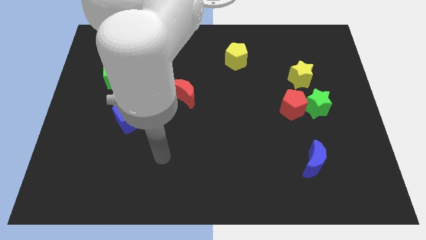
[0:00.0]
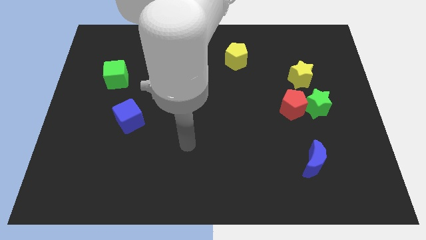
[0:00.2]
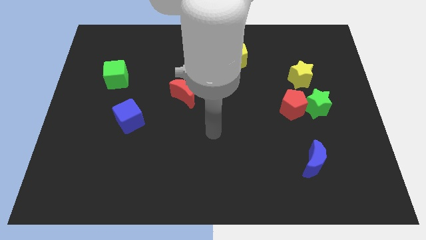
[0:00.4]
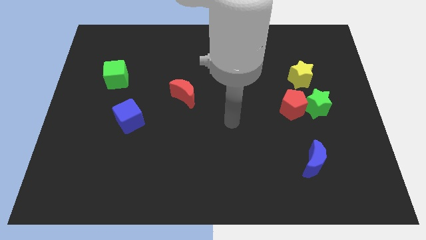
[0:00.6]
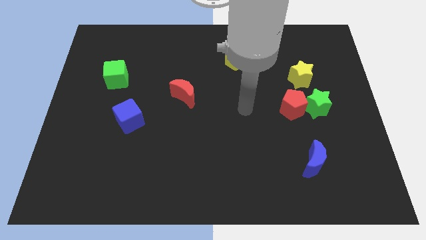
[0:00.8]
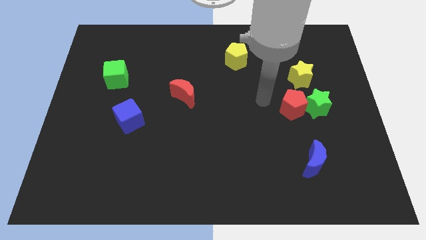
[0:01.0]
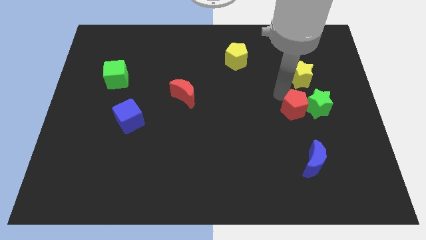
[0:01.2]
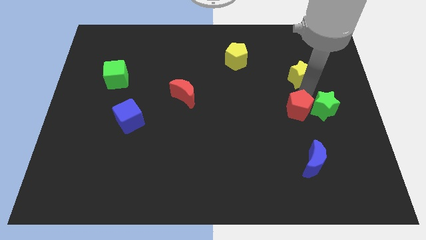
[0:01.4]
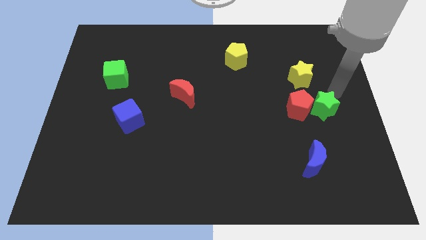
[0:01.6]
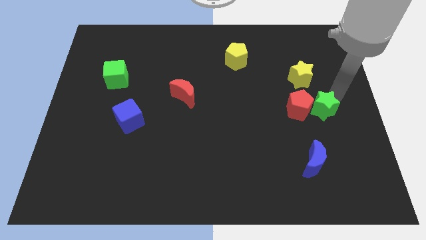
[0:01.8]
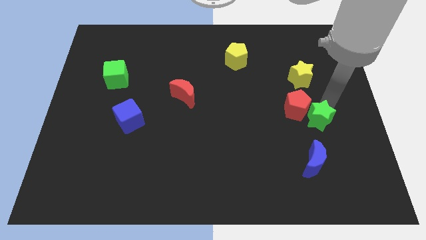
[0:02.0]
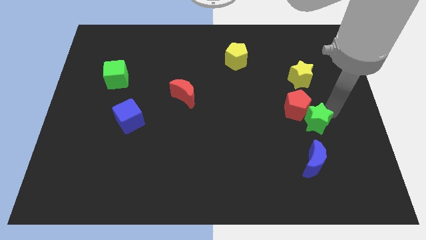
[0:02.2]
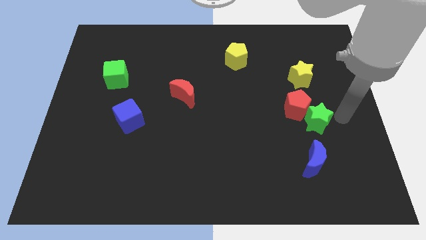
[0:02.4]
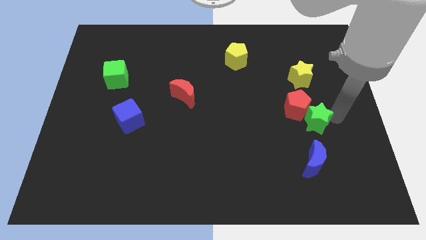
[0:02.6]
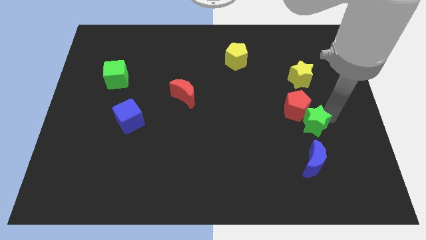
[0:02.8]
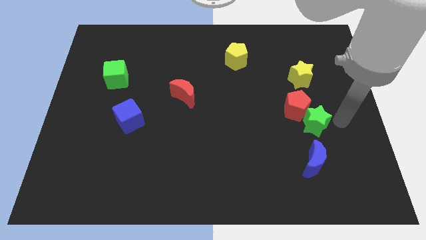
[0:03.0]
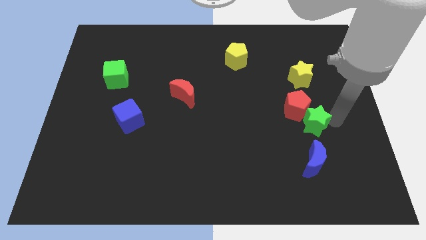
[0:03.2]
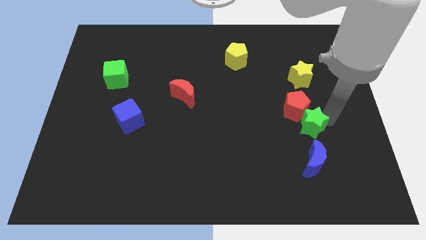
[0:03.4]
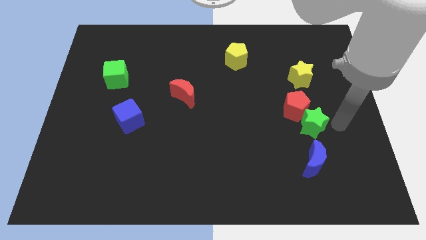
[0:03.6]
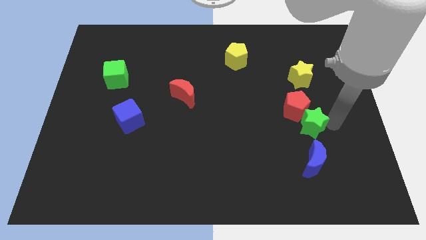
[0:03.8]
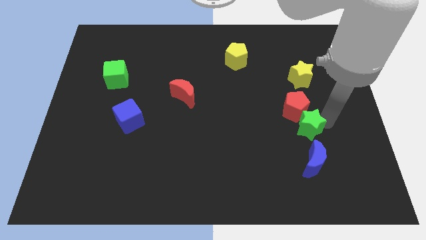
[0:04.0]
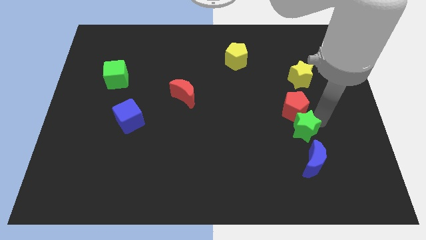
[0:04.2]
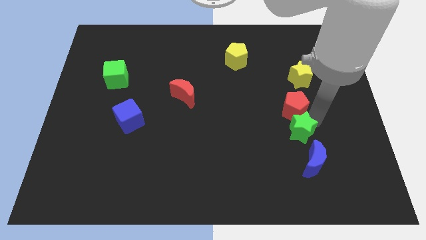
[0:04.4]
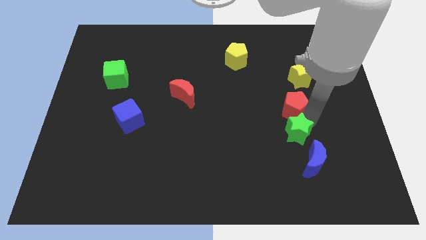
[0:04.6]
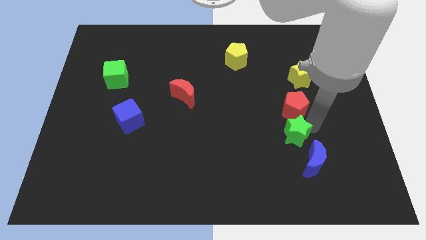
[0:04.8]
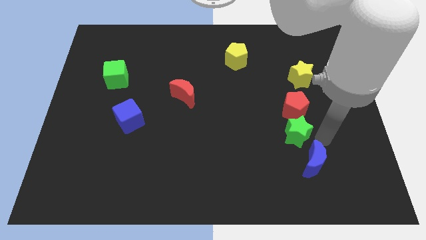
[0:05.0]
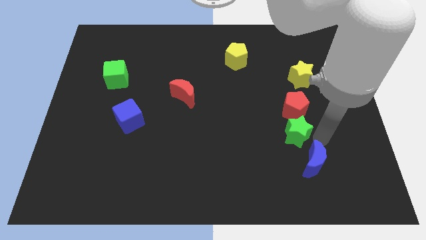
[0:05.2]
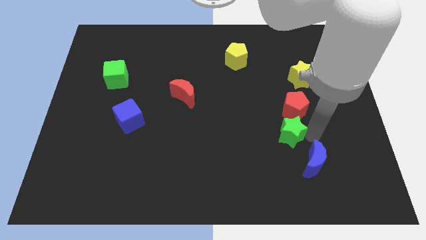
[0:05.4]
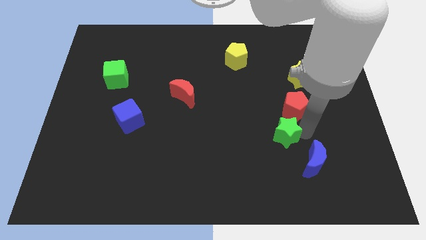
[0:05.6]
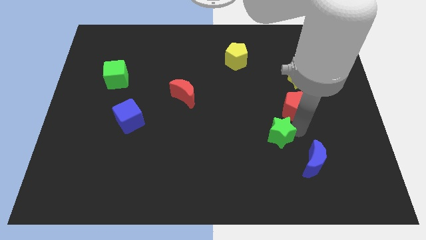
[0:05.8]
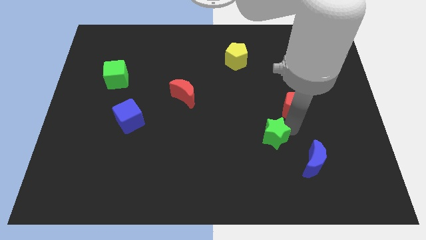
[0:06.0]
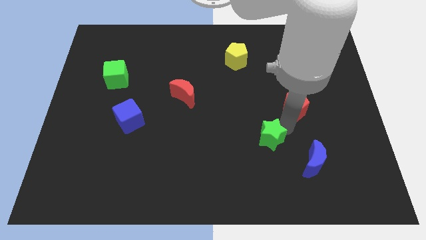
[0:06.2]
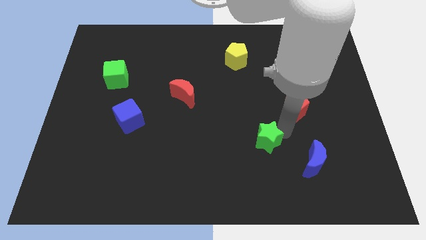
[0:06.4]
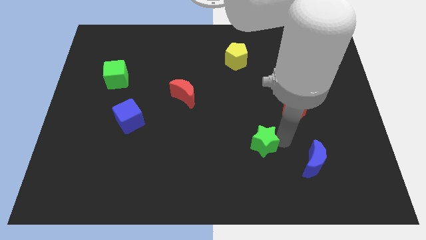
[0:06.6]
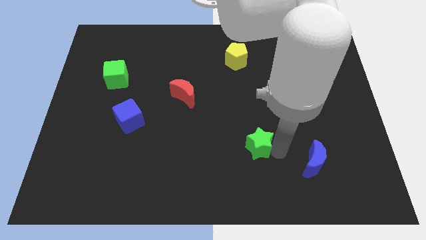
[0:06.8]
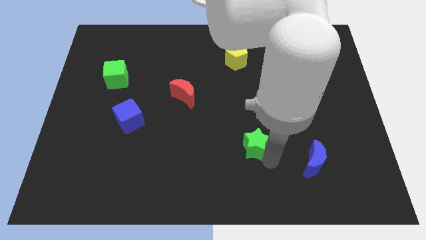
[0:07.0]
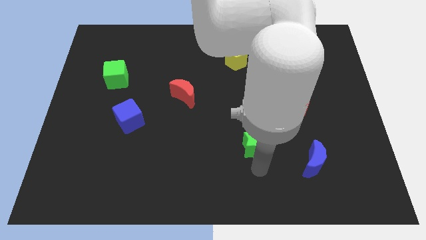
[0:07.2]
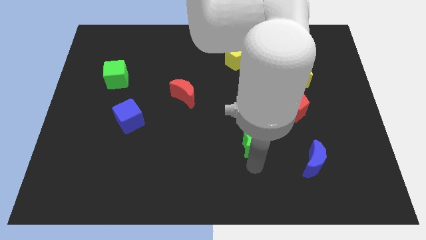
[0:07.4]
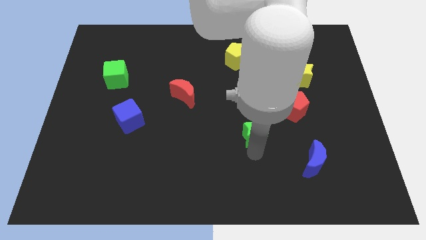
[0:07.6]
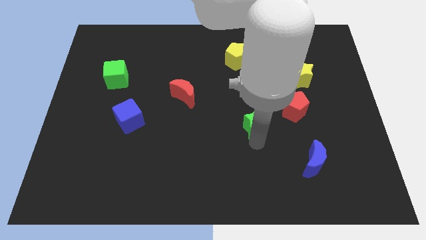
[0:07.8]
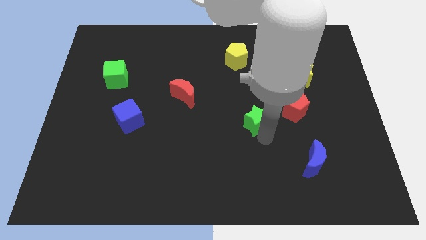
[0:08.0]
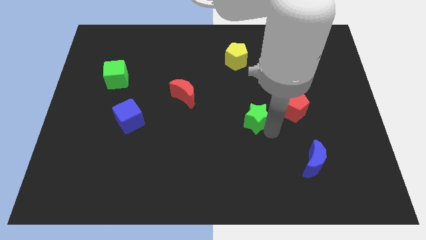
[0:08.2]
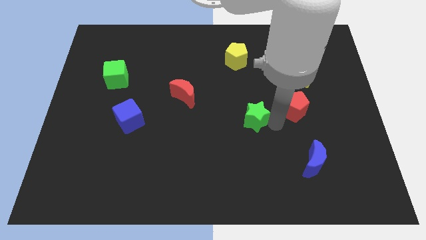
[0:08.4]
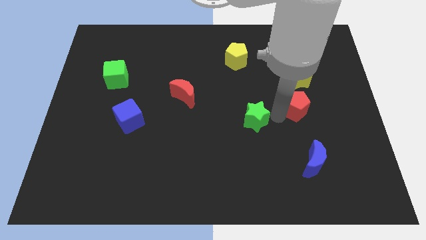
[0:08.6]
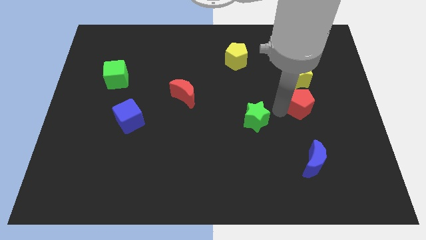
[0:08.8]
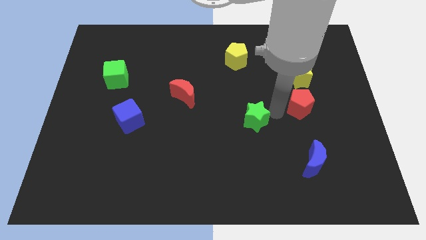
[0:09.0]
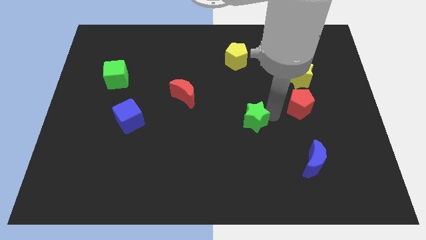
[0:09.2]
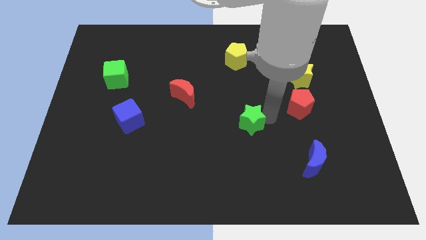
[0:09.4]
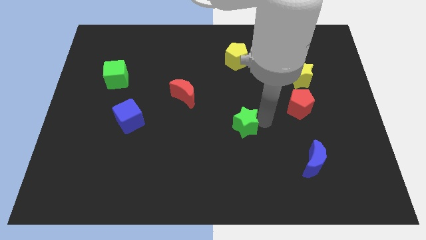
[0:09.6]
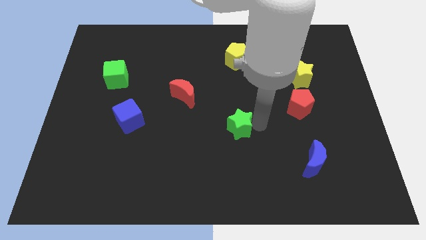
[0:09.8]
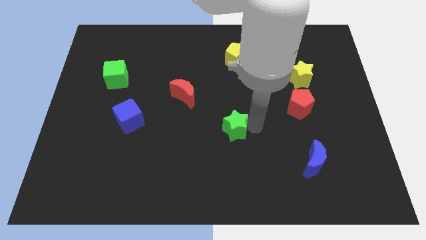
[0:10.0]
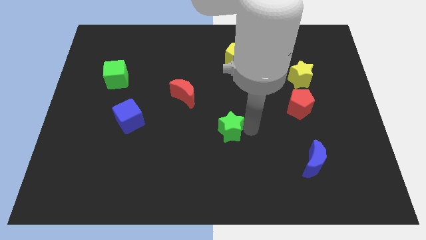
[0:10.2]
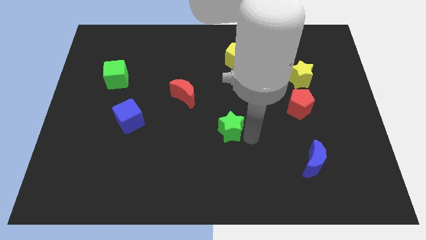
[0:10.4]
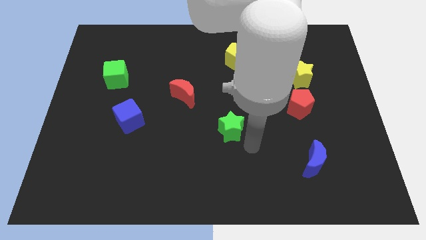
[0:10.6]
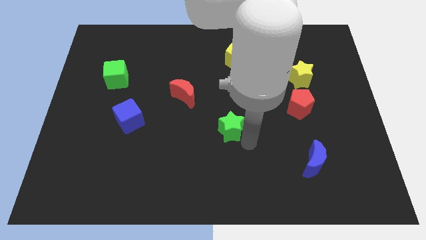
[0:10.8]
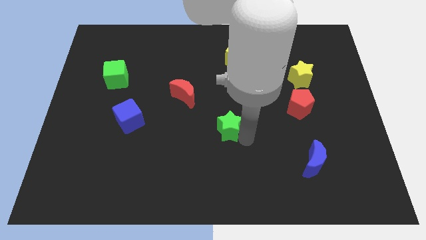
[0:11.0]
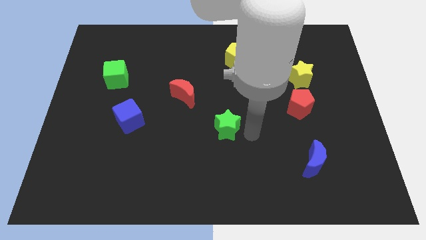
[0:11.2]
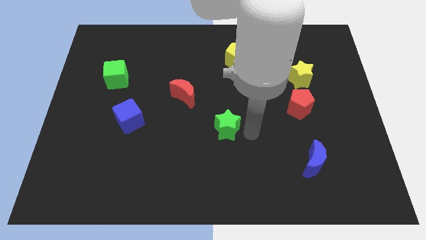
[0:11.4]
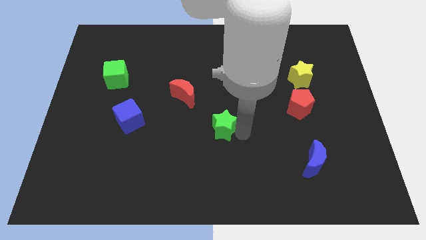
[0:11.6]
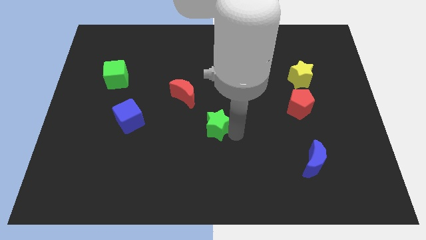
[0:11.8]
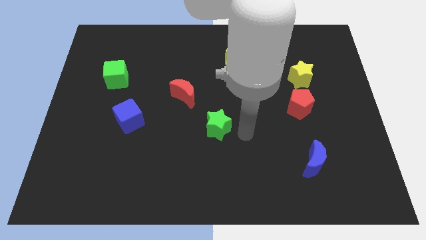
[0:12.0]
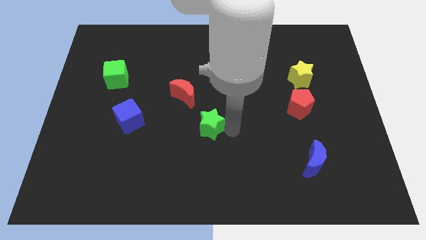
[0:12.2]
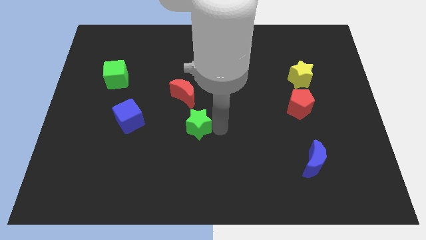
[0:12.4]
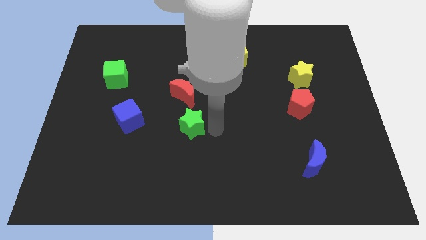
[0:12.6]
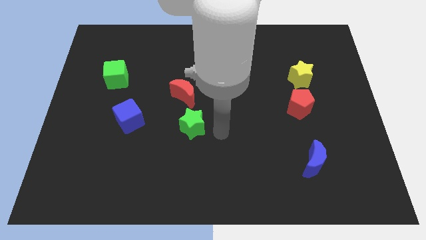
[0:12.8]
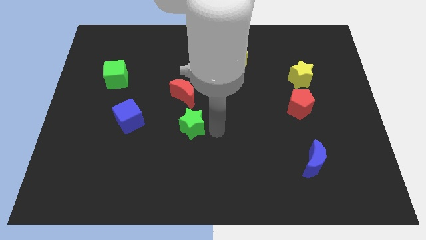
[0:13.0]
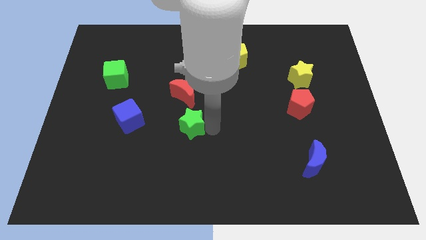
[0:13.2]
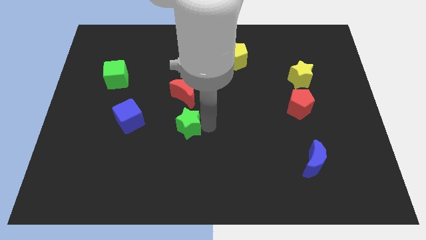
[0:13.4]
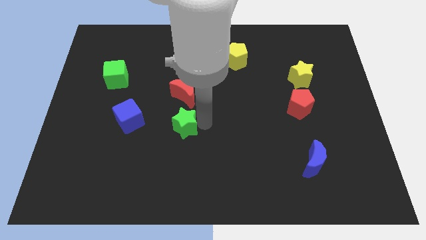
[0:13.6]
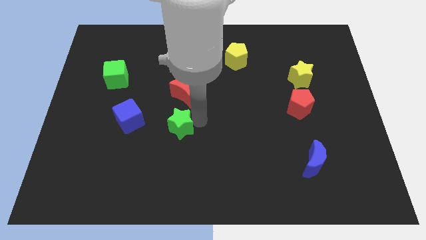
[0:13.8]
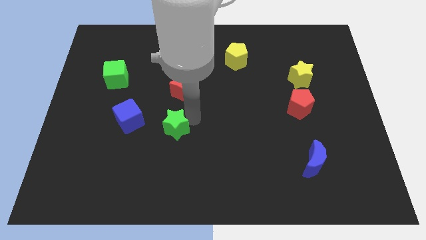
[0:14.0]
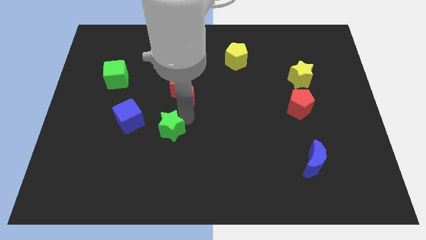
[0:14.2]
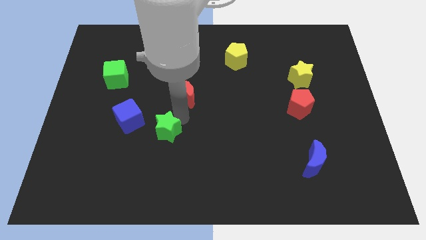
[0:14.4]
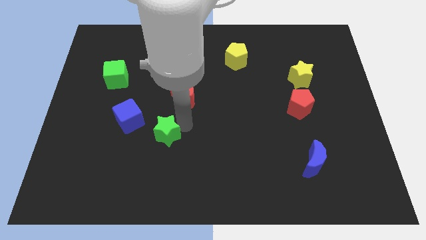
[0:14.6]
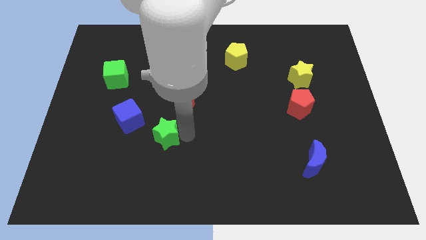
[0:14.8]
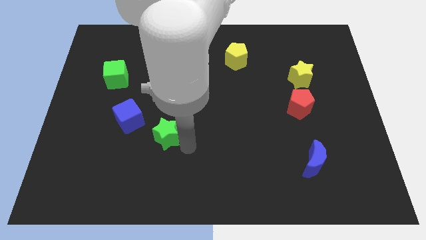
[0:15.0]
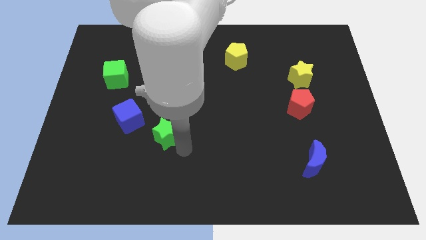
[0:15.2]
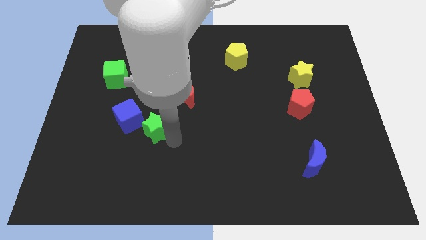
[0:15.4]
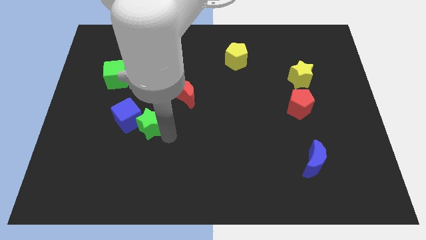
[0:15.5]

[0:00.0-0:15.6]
slide the green star next to the blue cube
